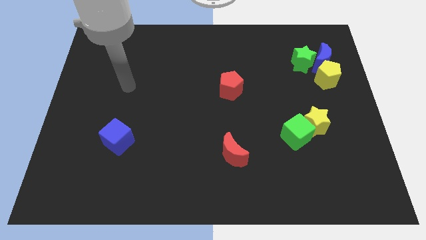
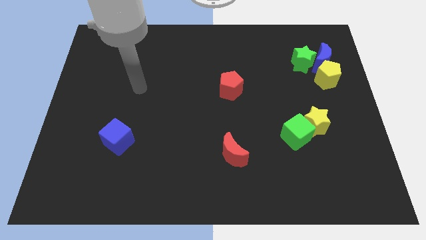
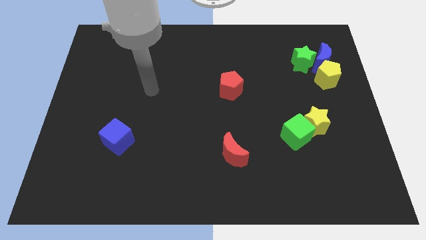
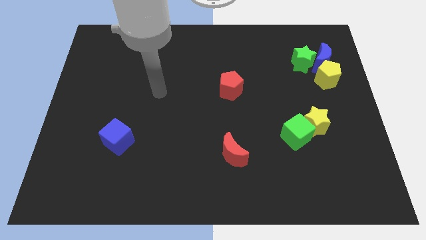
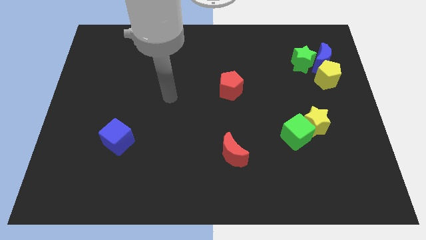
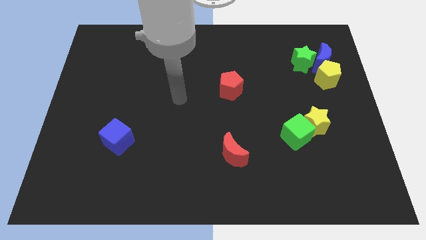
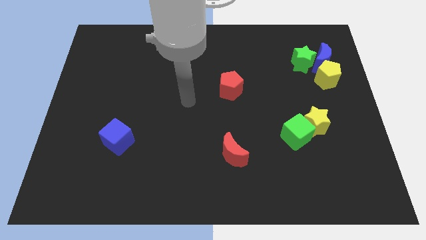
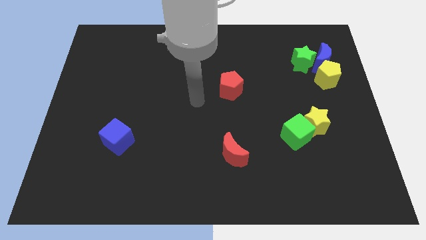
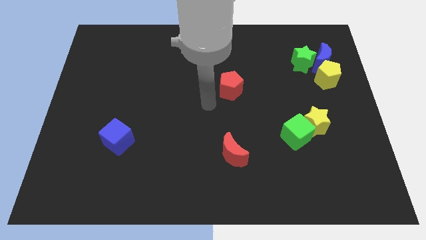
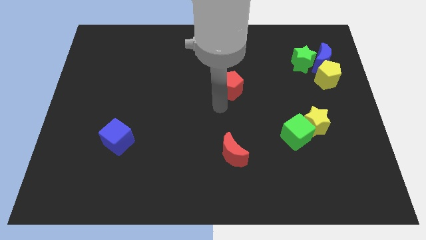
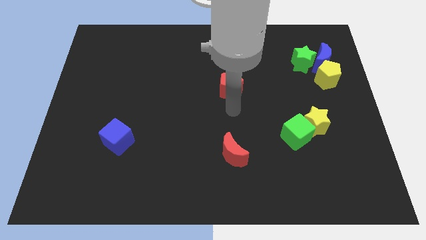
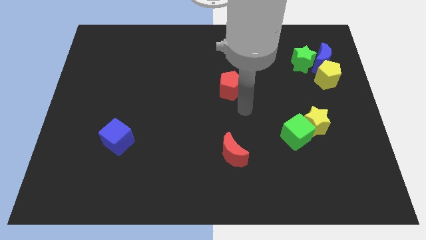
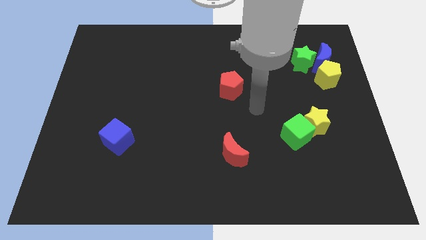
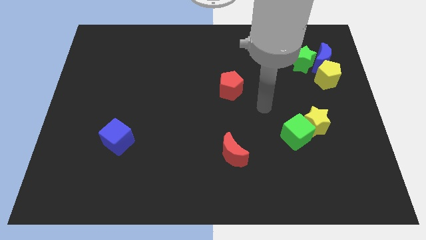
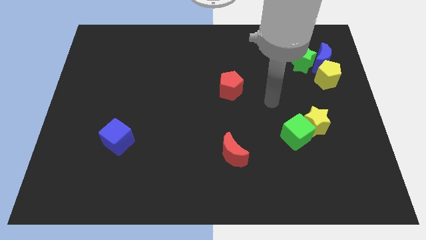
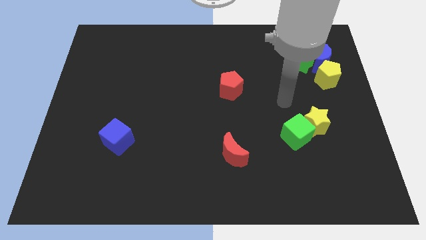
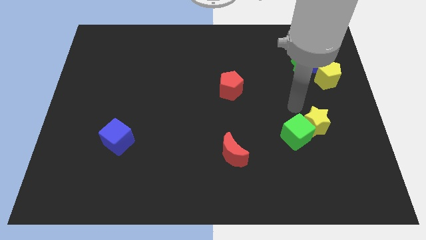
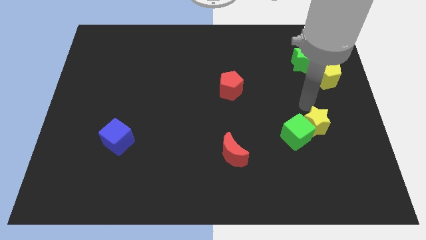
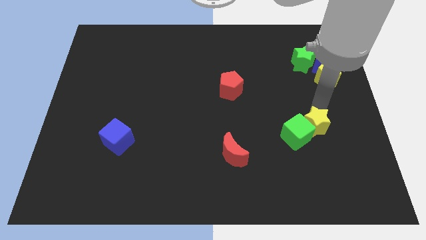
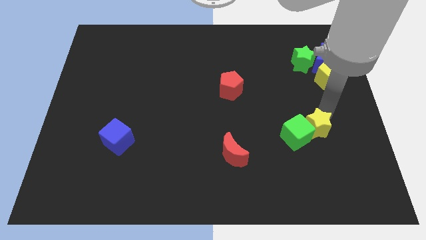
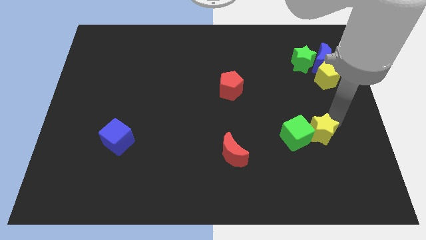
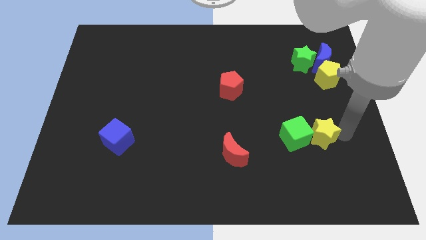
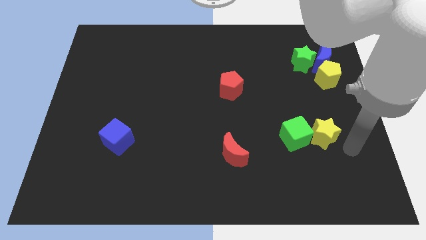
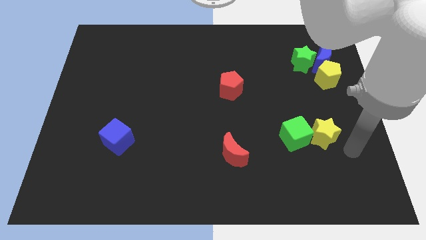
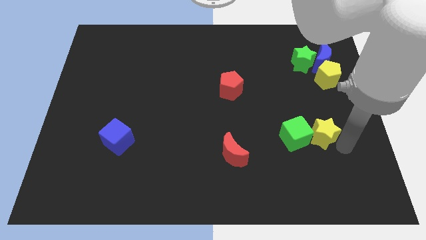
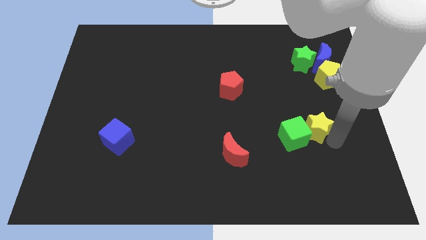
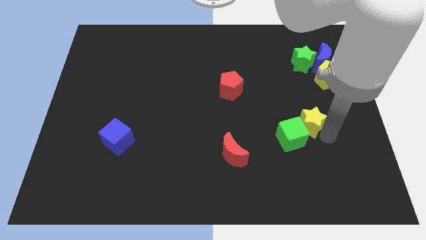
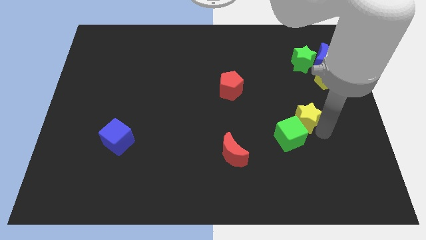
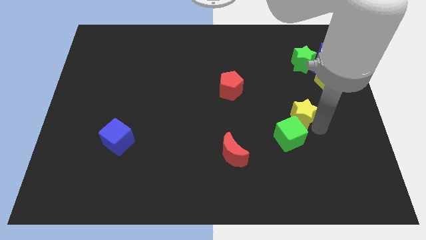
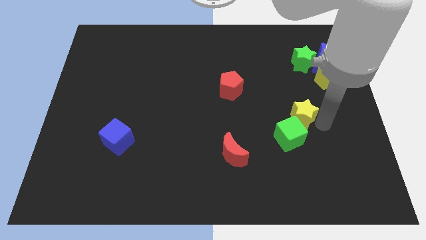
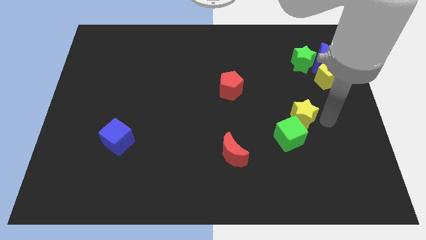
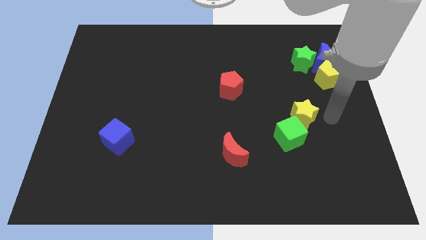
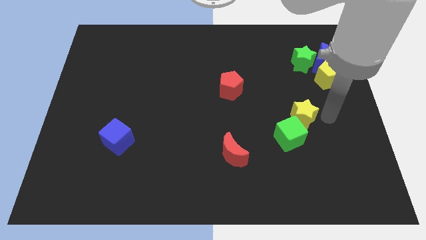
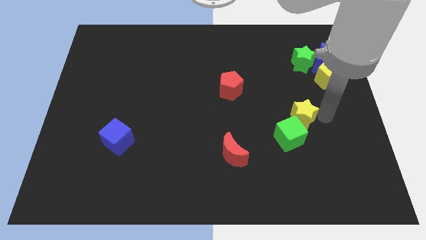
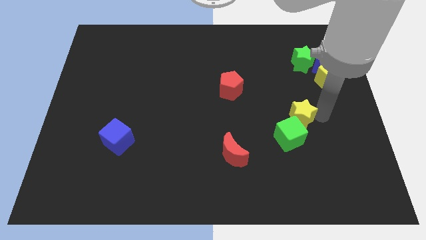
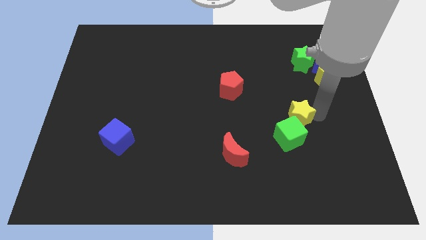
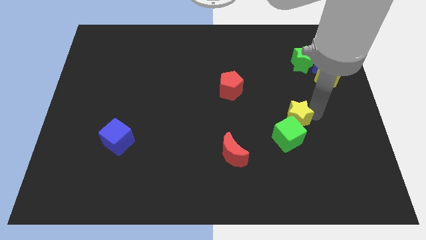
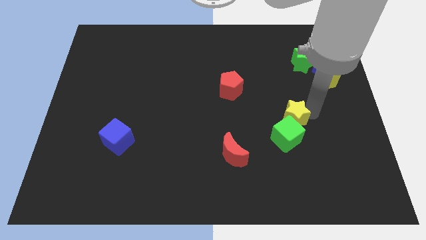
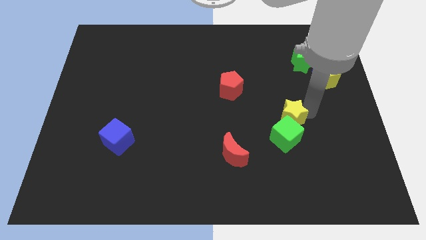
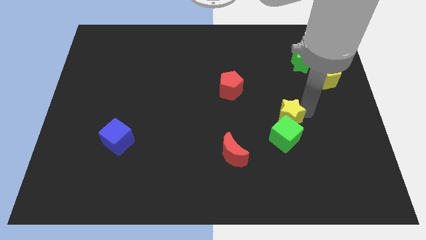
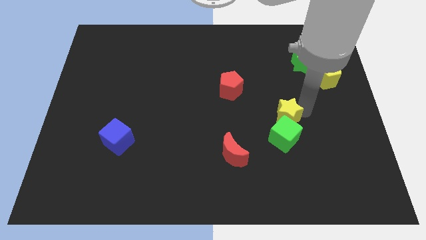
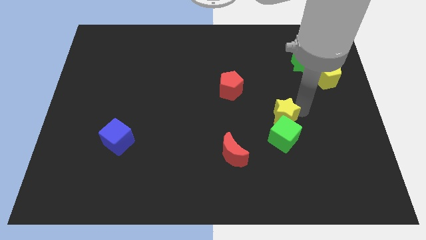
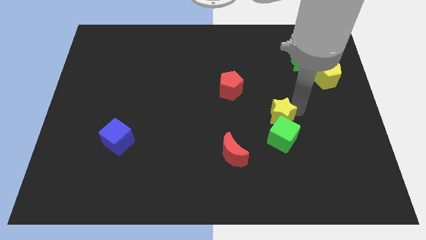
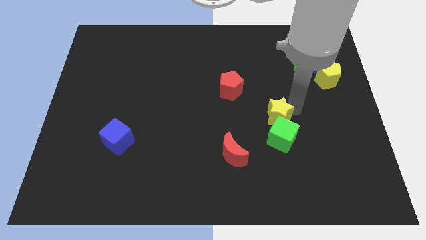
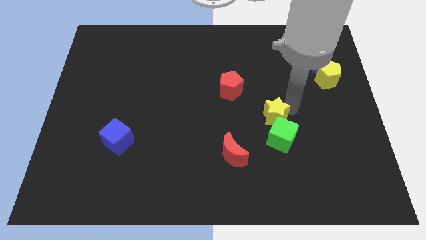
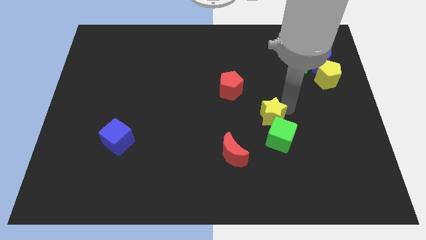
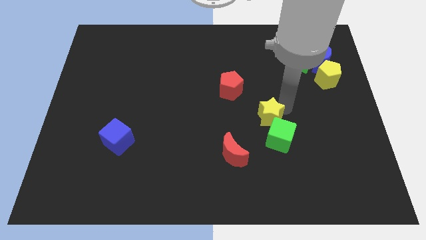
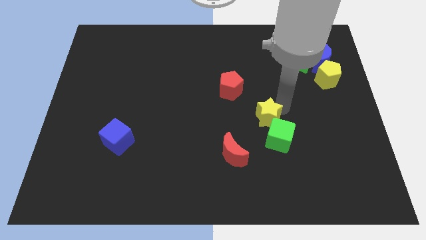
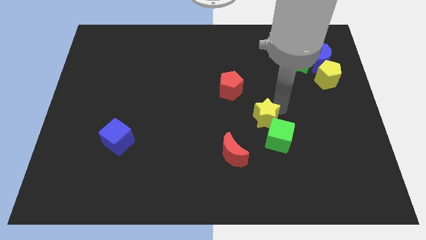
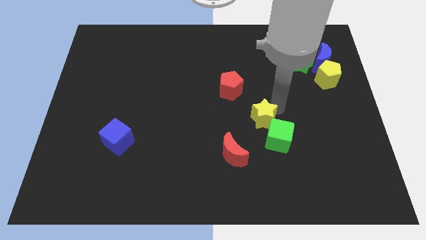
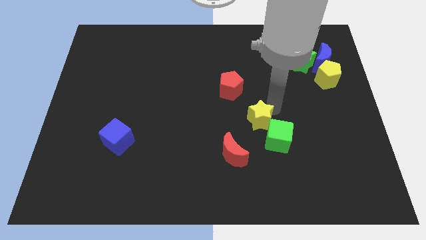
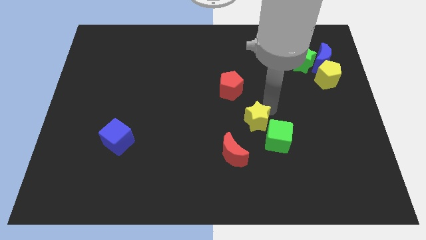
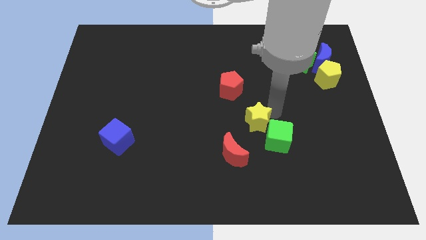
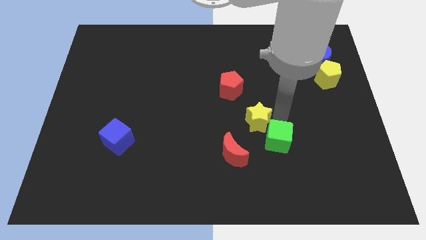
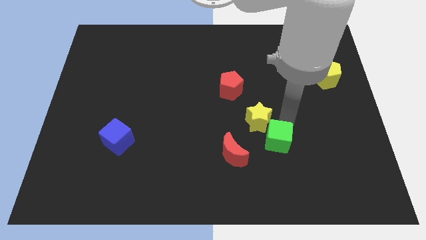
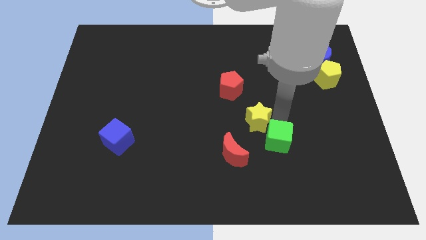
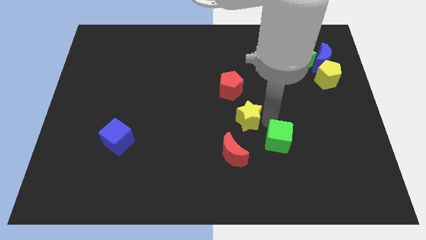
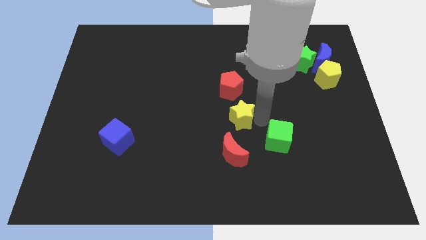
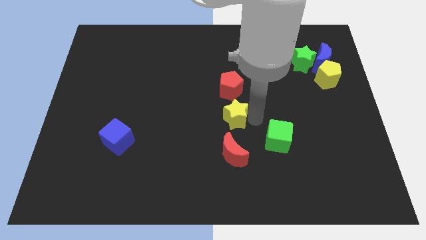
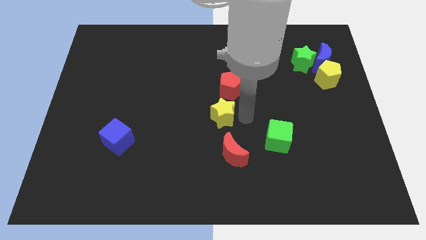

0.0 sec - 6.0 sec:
push the yellow star to the left

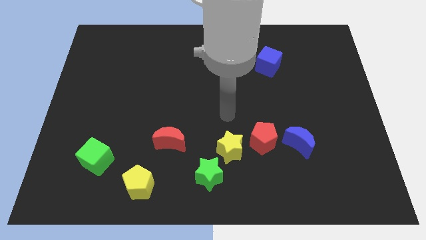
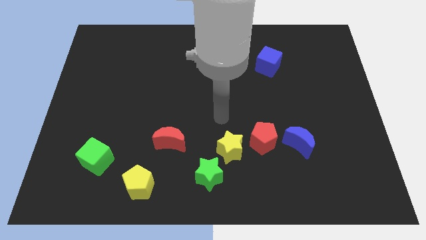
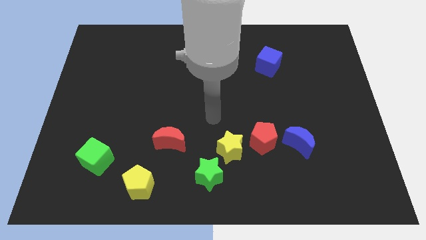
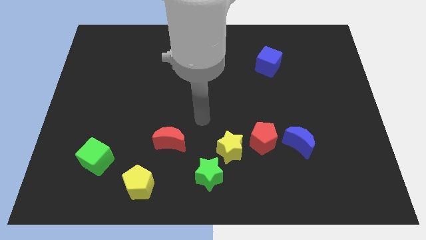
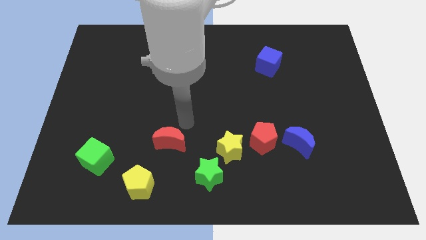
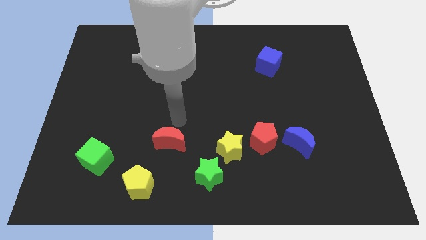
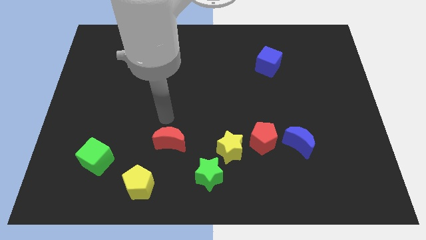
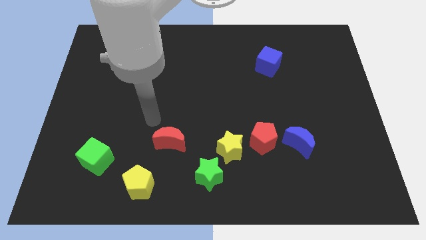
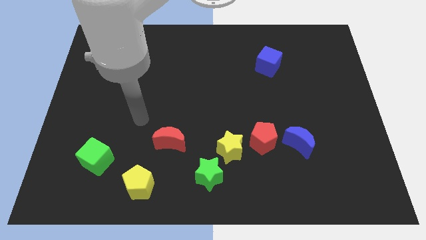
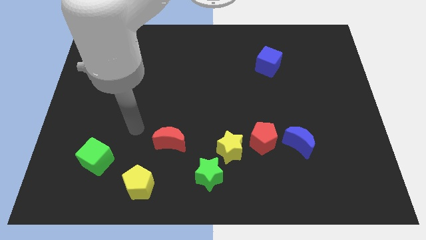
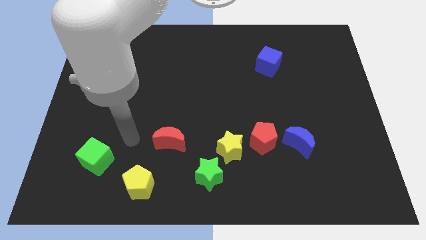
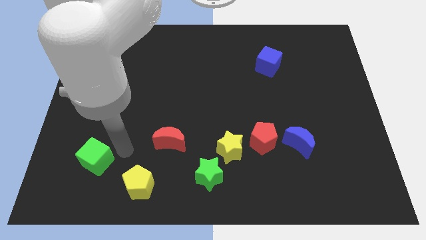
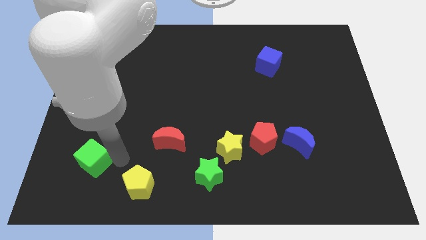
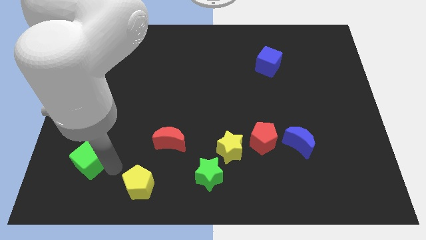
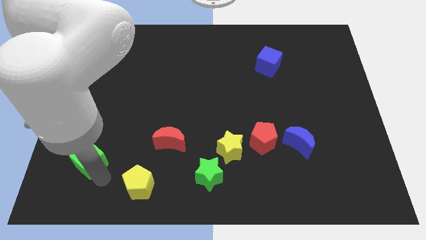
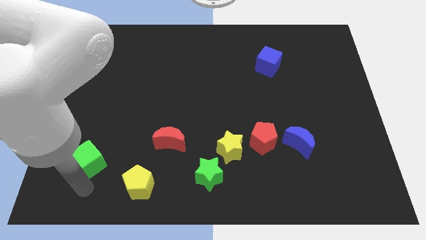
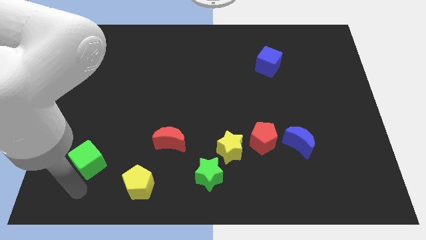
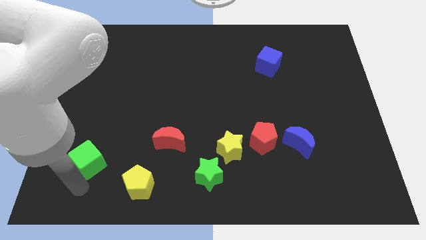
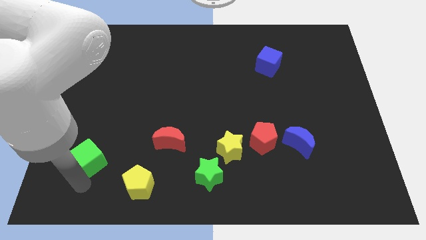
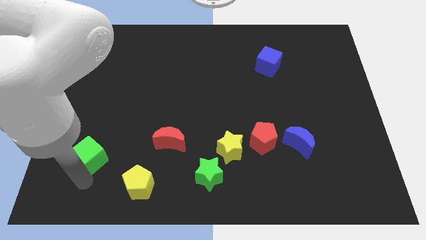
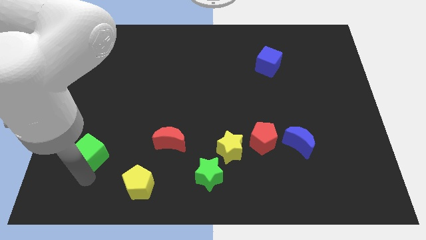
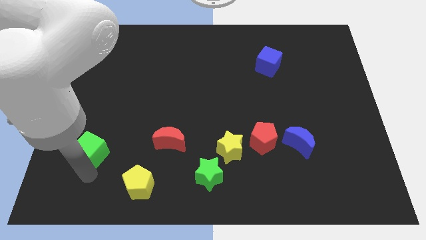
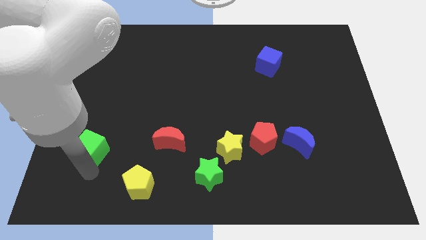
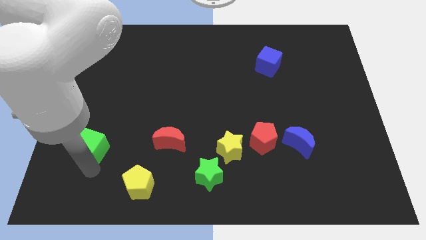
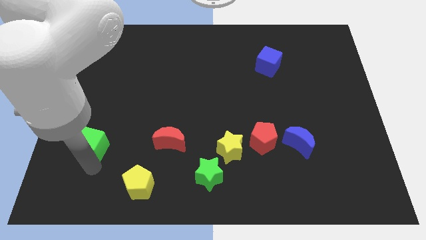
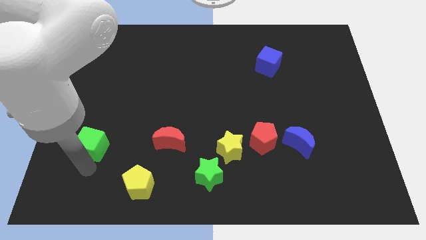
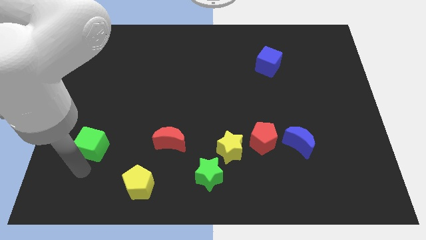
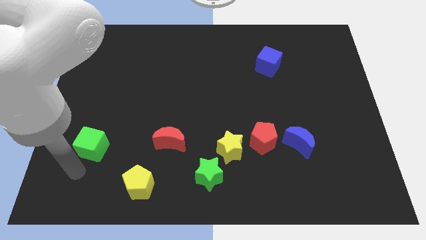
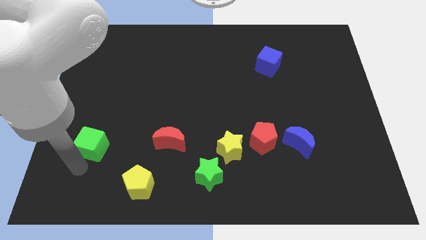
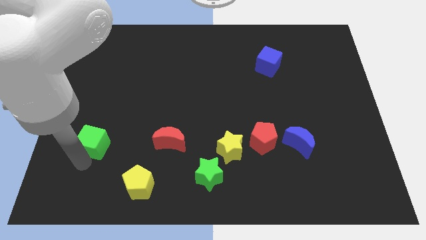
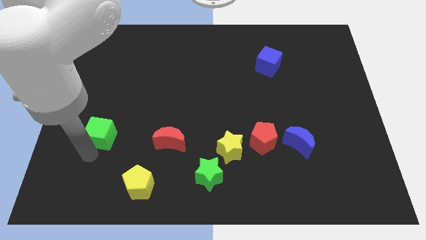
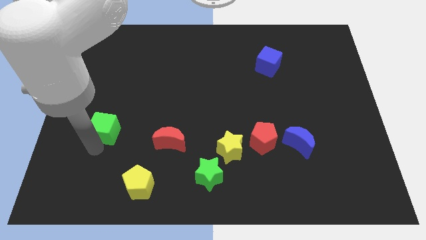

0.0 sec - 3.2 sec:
slide the green cube upwards a little bit
